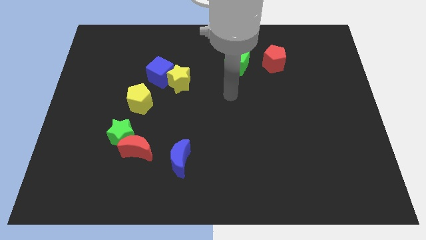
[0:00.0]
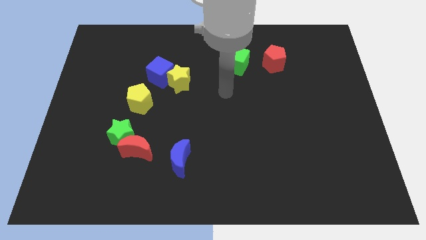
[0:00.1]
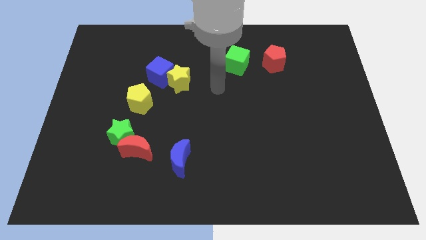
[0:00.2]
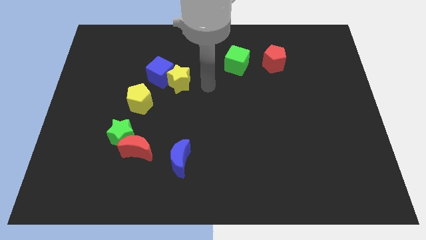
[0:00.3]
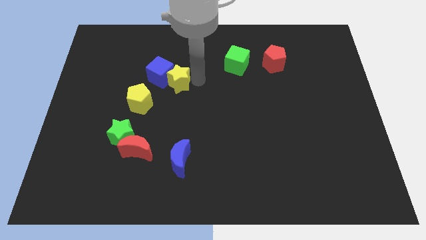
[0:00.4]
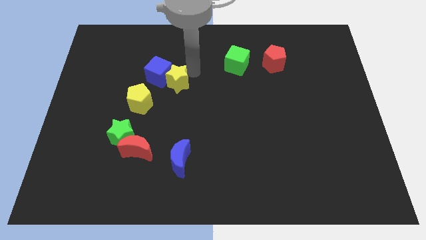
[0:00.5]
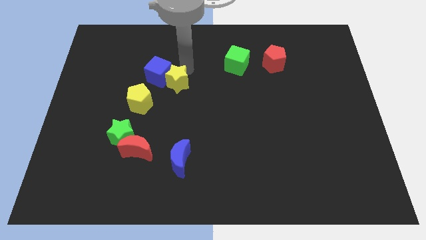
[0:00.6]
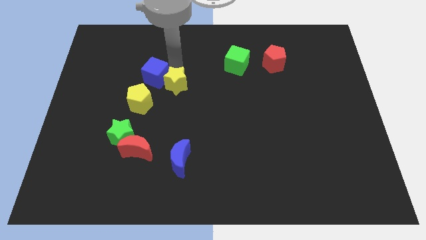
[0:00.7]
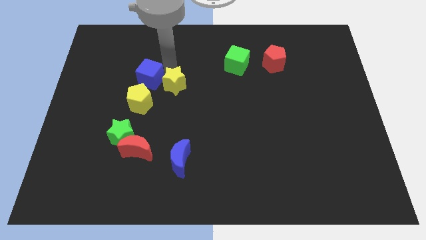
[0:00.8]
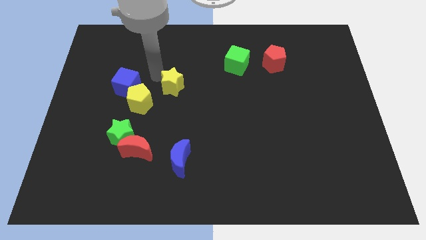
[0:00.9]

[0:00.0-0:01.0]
pull the yellow star apart from the blue cube

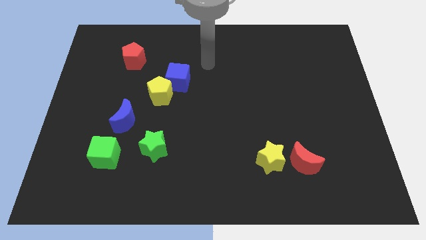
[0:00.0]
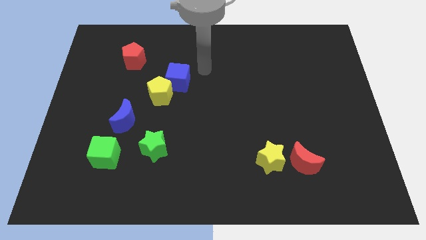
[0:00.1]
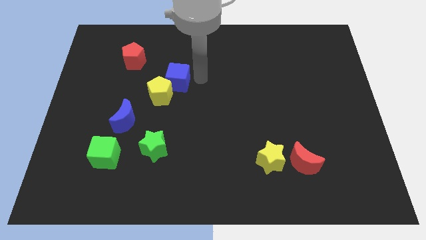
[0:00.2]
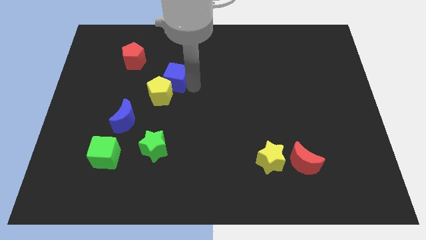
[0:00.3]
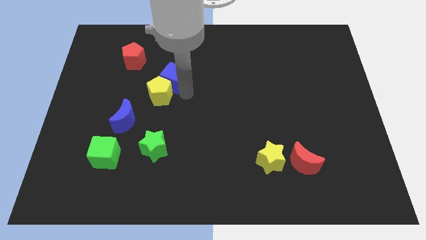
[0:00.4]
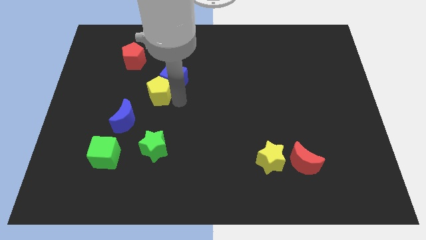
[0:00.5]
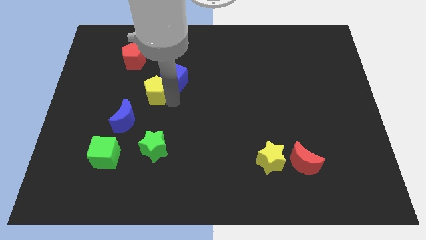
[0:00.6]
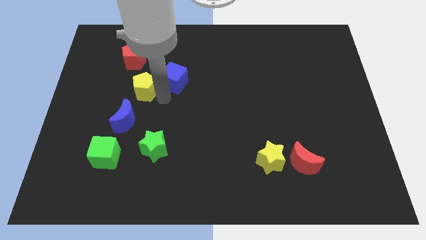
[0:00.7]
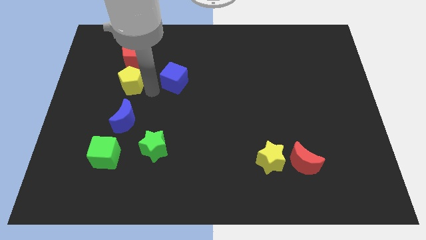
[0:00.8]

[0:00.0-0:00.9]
move the blue cube away from the yellow pentagon

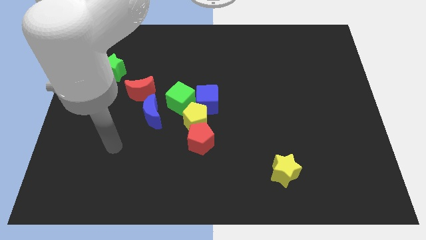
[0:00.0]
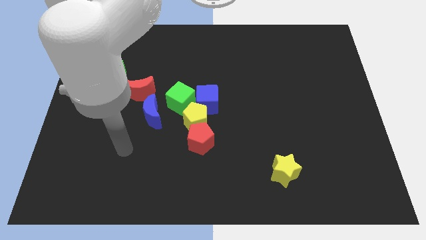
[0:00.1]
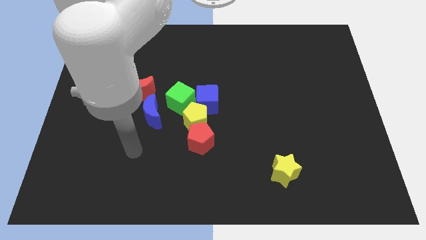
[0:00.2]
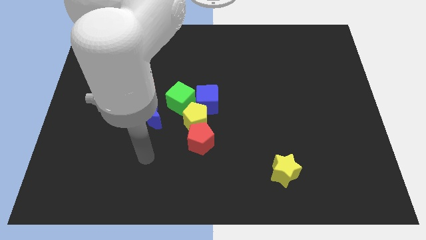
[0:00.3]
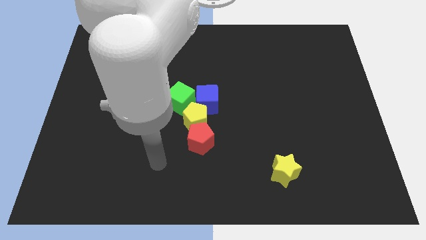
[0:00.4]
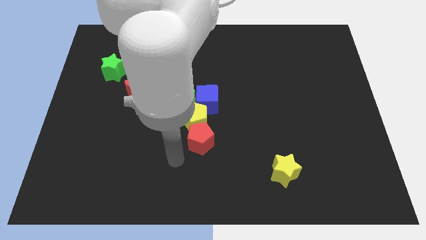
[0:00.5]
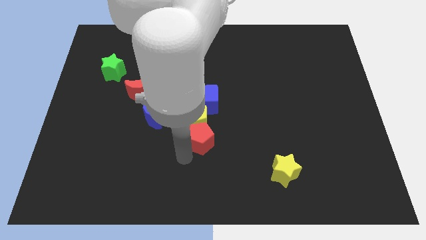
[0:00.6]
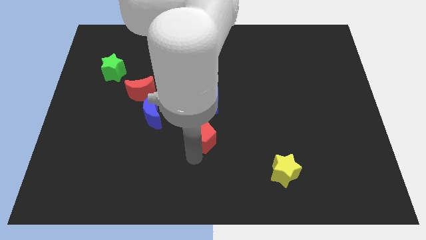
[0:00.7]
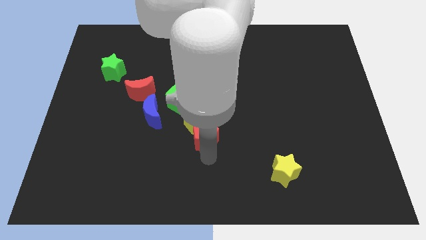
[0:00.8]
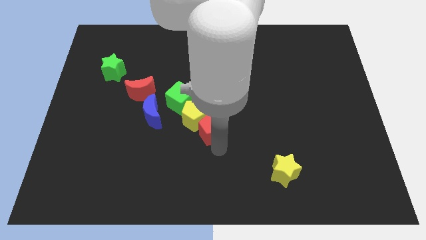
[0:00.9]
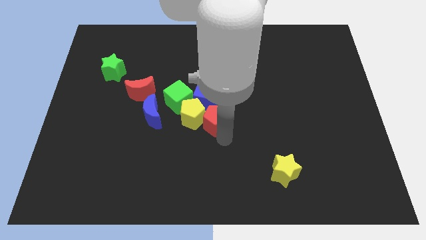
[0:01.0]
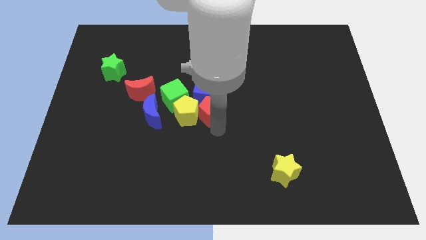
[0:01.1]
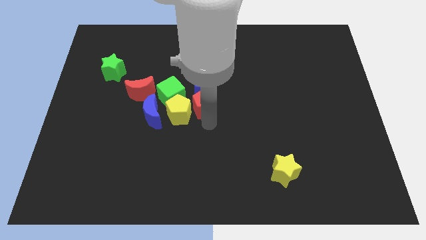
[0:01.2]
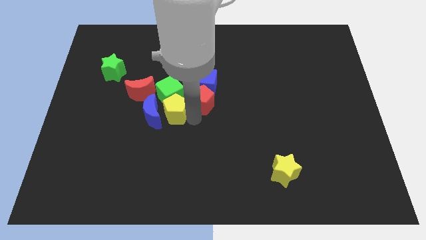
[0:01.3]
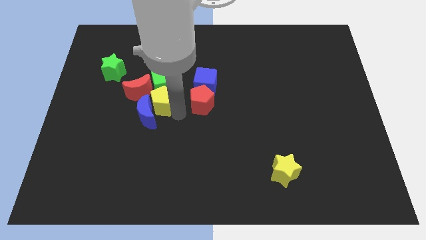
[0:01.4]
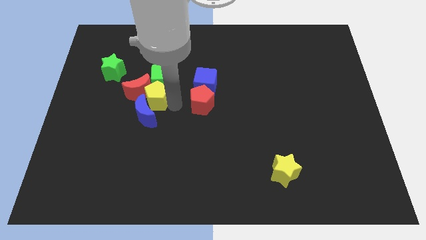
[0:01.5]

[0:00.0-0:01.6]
separate the red pentagon from the yellow pentagon

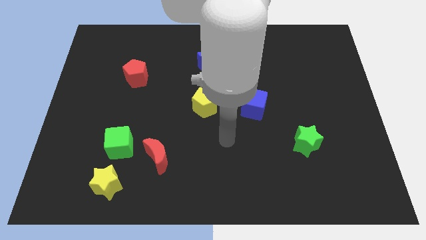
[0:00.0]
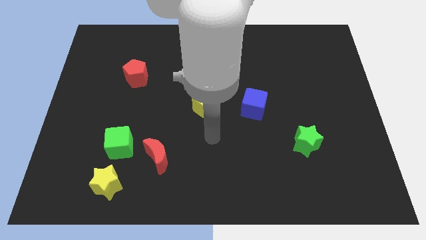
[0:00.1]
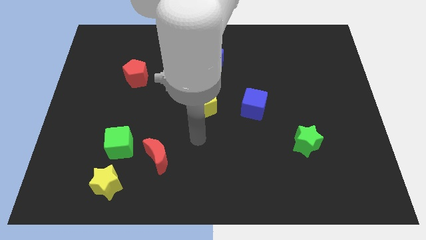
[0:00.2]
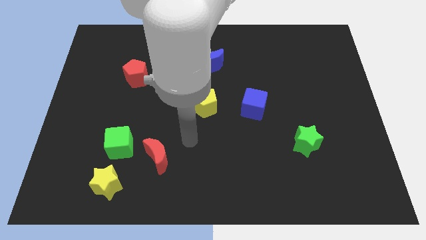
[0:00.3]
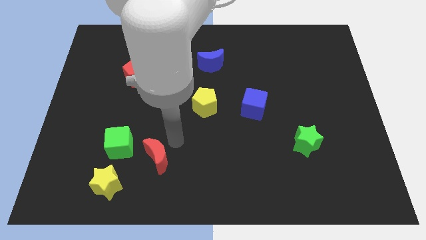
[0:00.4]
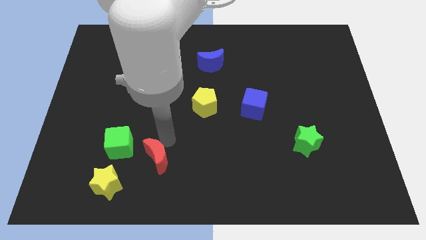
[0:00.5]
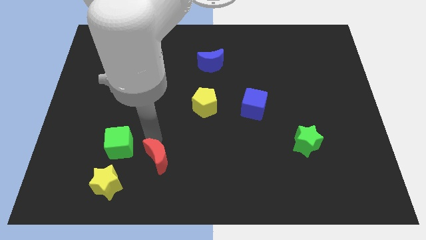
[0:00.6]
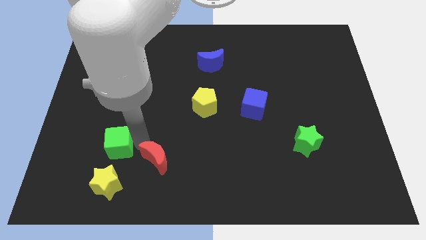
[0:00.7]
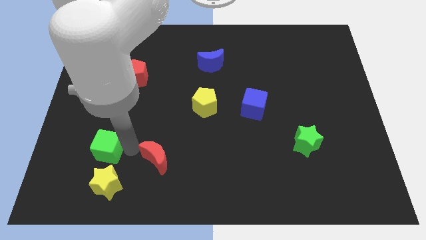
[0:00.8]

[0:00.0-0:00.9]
move the red moon away from the green cube

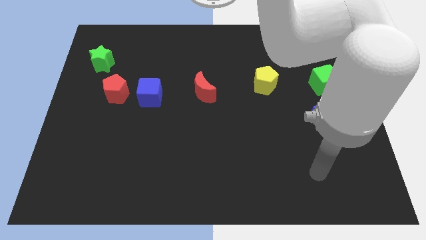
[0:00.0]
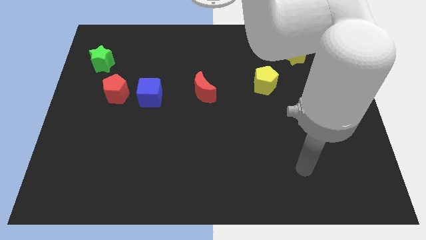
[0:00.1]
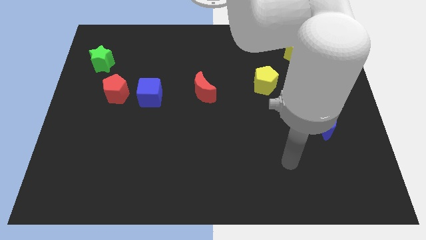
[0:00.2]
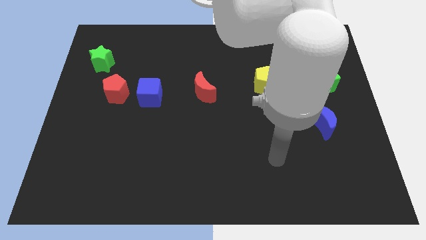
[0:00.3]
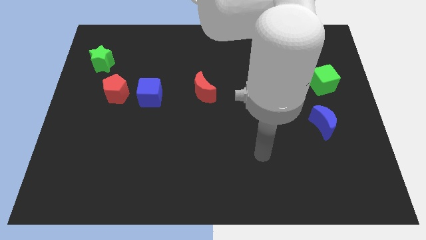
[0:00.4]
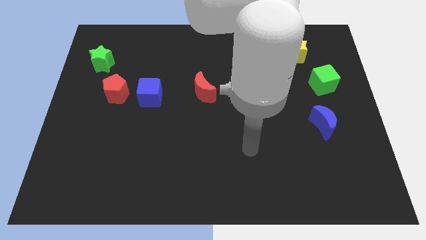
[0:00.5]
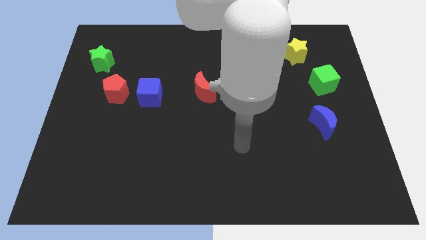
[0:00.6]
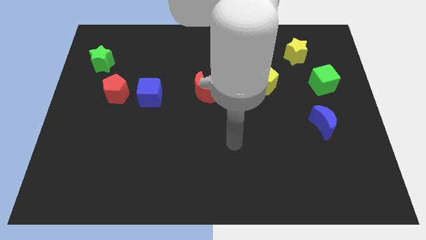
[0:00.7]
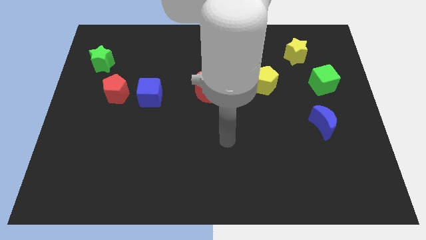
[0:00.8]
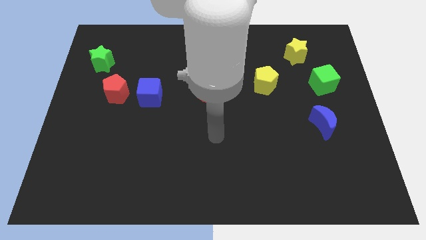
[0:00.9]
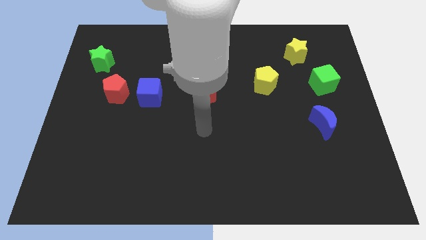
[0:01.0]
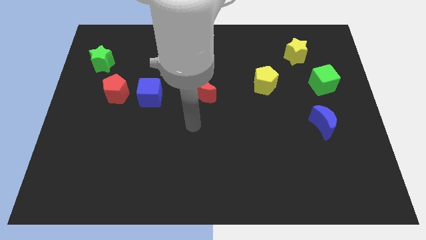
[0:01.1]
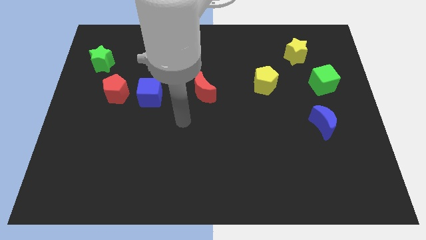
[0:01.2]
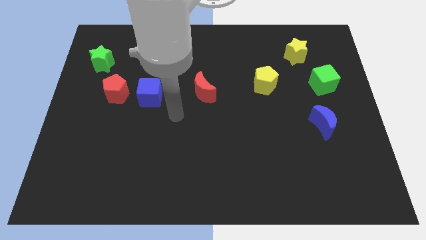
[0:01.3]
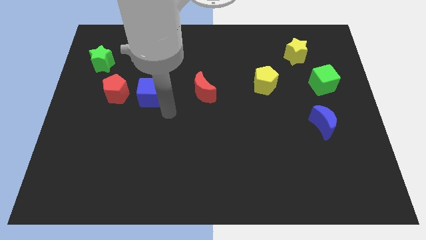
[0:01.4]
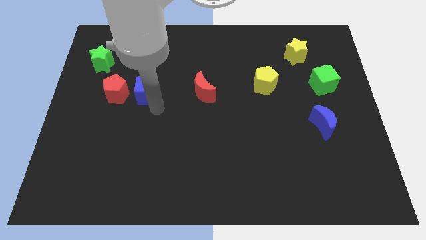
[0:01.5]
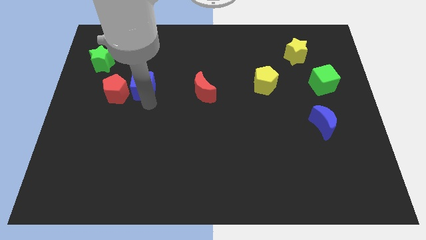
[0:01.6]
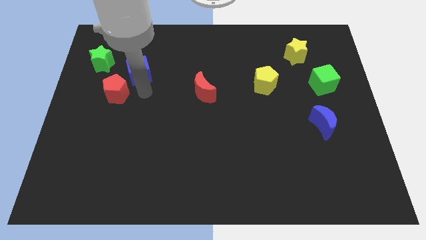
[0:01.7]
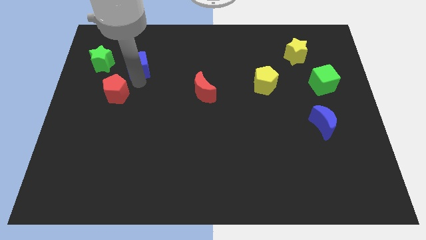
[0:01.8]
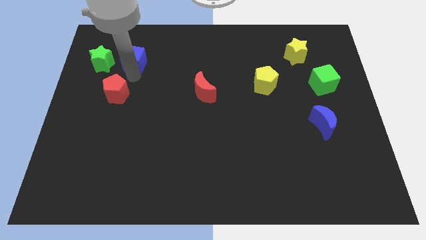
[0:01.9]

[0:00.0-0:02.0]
separate the red pentagon from the blue cube

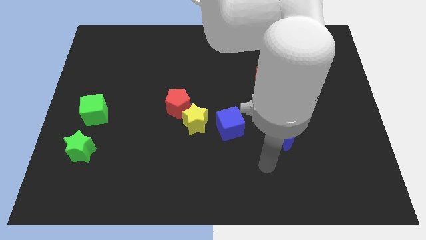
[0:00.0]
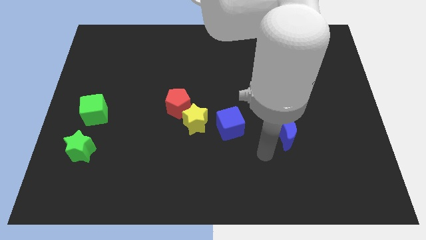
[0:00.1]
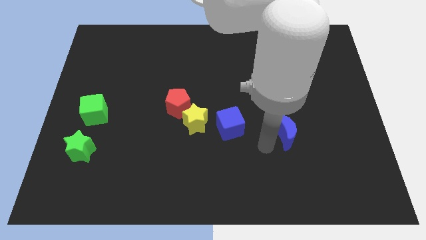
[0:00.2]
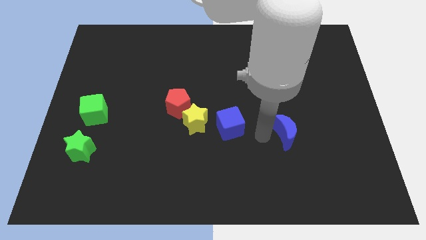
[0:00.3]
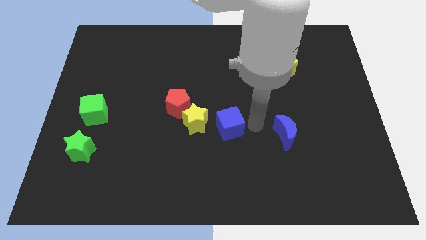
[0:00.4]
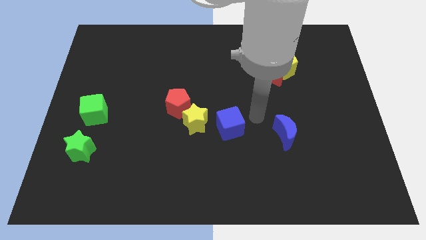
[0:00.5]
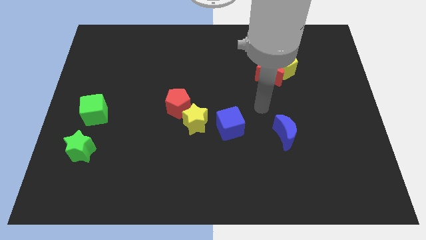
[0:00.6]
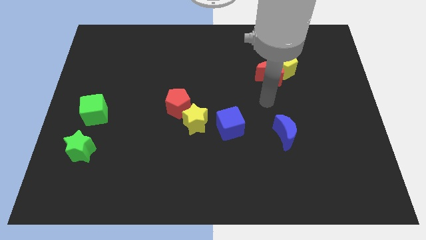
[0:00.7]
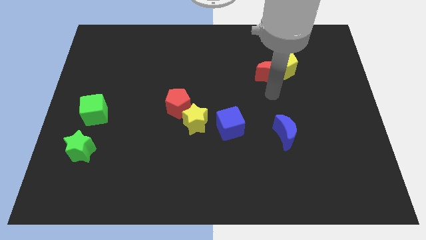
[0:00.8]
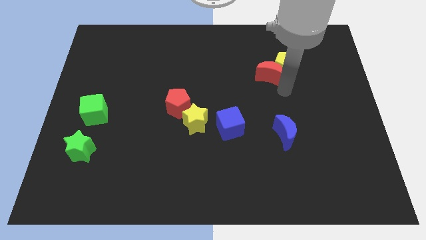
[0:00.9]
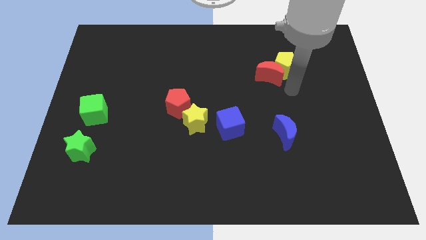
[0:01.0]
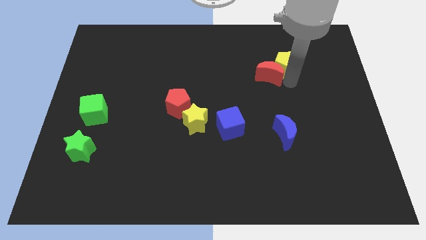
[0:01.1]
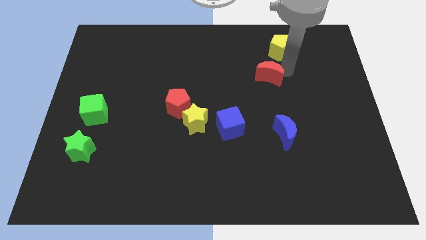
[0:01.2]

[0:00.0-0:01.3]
pull the red moon apart from the yellow pentagon

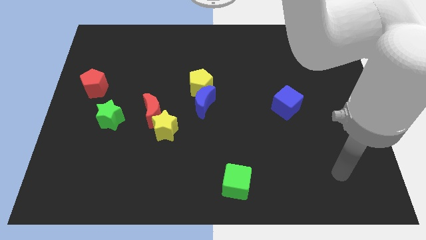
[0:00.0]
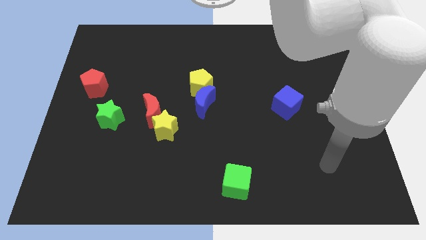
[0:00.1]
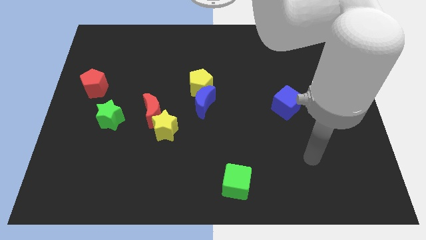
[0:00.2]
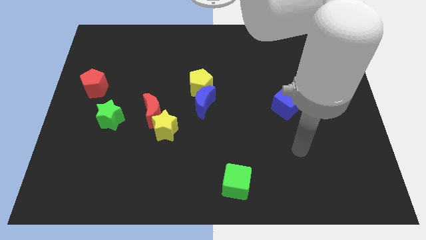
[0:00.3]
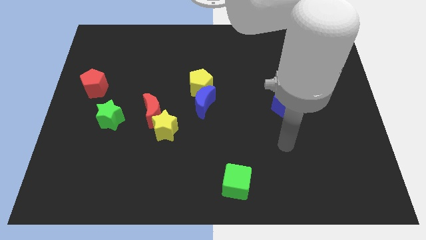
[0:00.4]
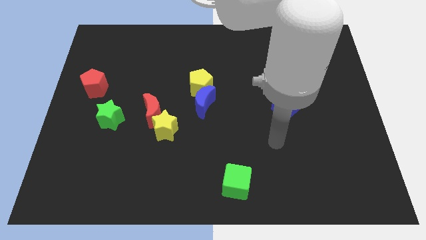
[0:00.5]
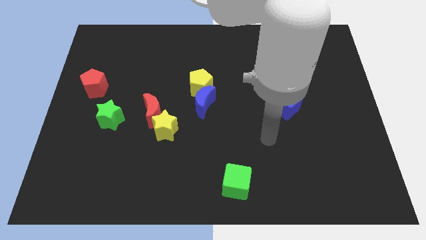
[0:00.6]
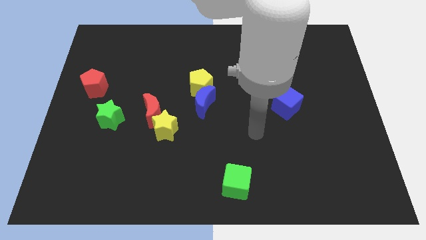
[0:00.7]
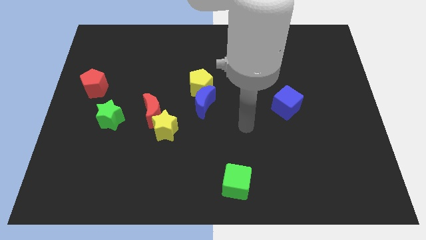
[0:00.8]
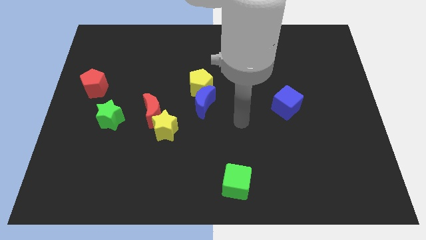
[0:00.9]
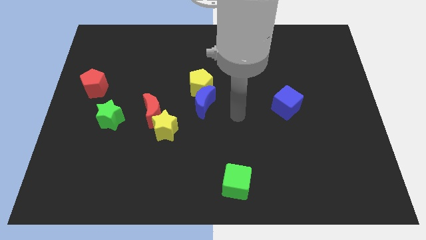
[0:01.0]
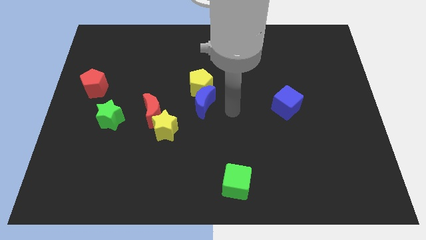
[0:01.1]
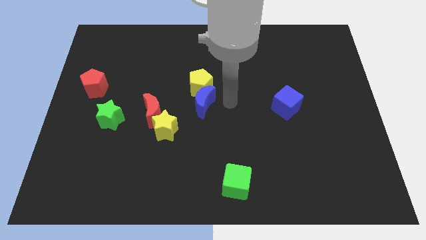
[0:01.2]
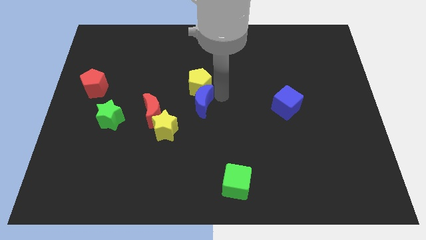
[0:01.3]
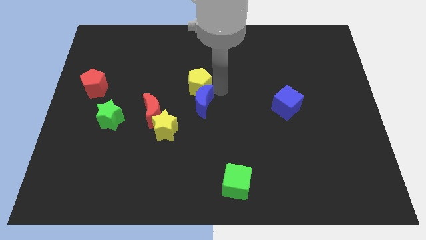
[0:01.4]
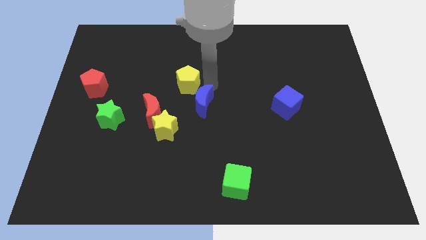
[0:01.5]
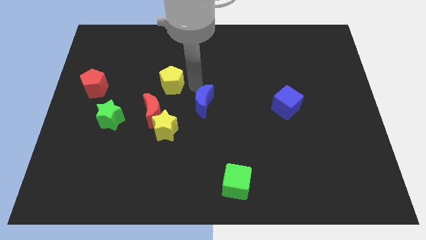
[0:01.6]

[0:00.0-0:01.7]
pull the blue moon apart from the yellow pentagon
